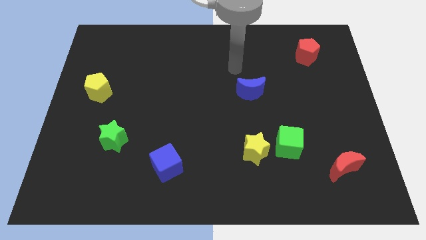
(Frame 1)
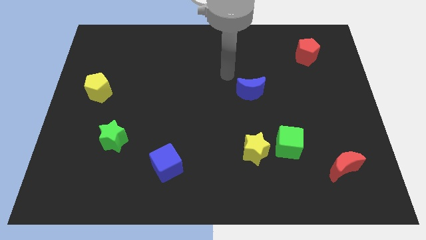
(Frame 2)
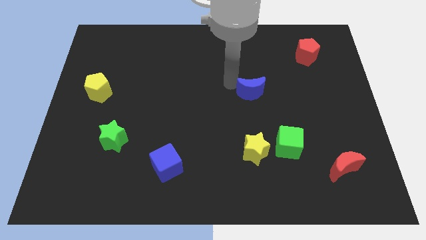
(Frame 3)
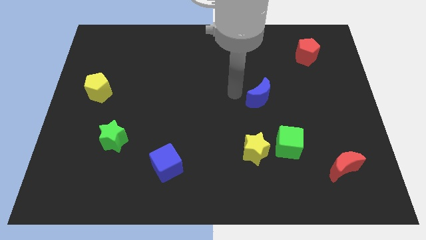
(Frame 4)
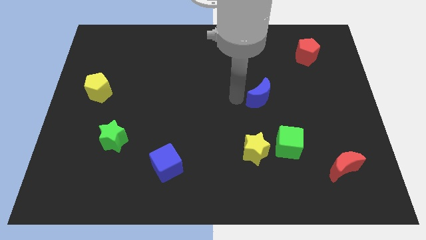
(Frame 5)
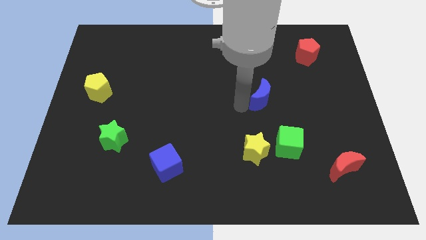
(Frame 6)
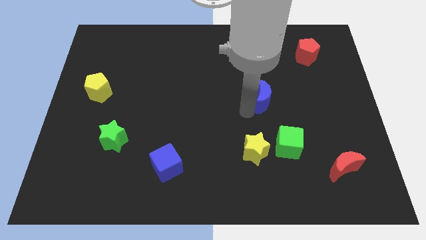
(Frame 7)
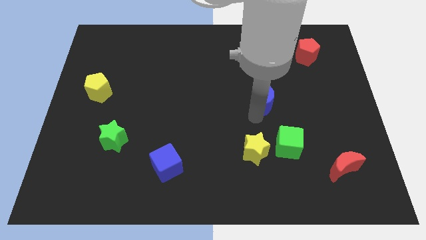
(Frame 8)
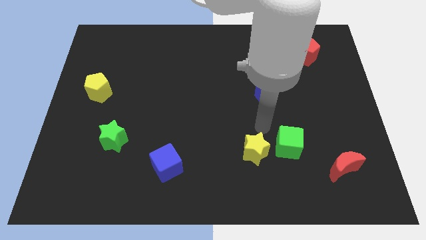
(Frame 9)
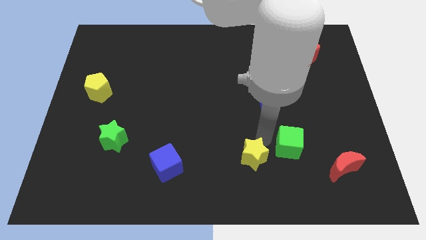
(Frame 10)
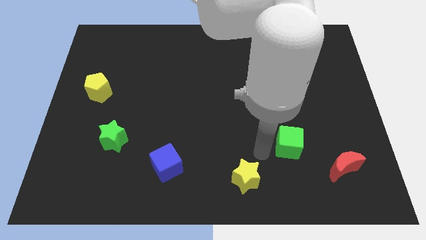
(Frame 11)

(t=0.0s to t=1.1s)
pull the green cube apart from the yellow star

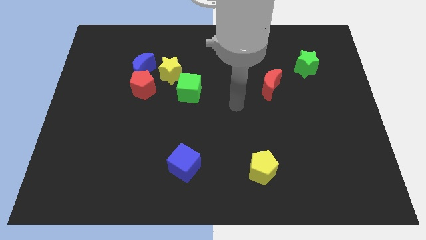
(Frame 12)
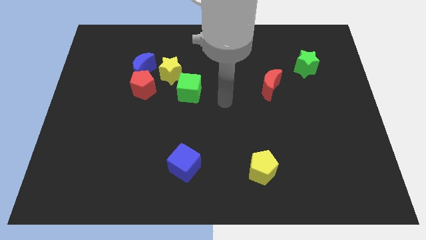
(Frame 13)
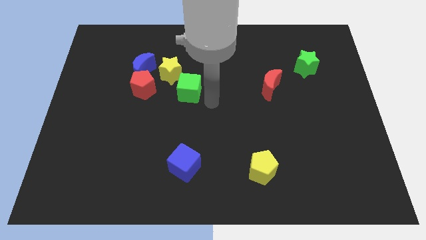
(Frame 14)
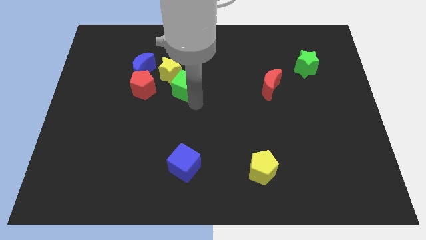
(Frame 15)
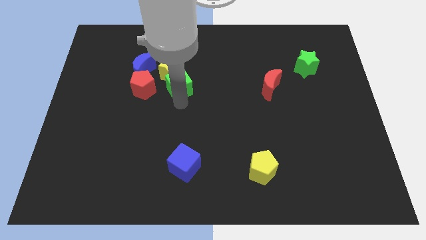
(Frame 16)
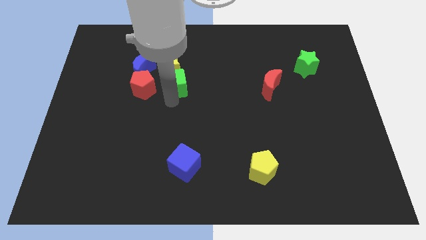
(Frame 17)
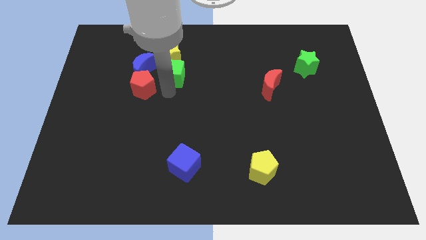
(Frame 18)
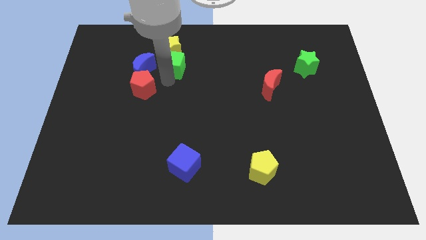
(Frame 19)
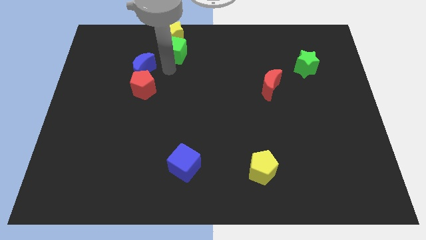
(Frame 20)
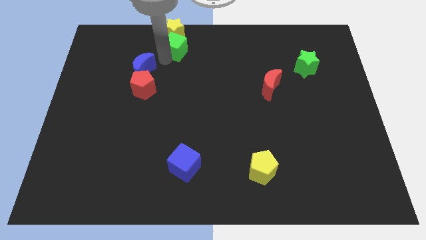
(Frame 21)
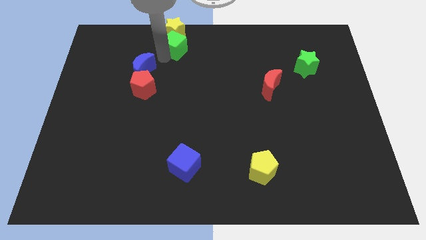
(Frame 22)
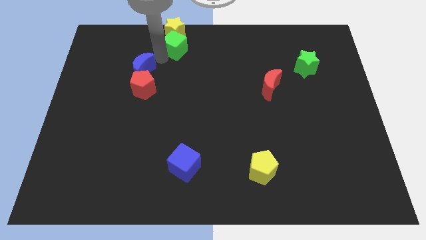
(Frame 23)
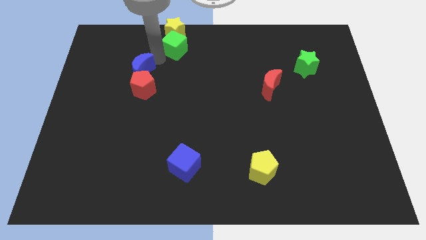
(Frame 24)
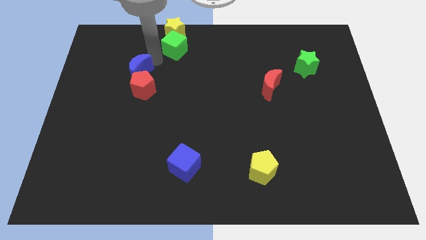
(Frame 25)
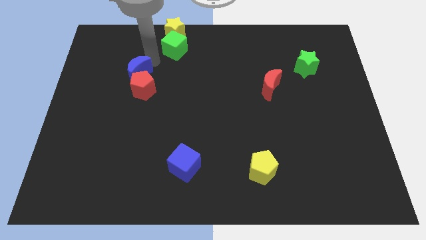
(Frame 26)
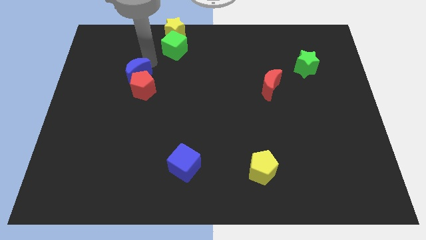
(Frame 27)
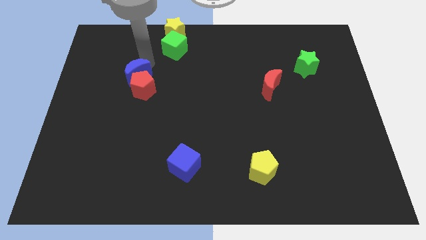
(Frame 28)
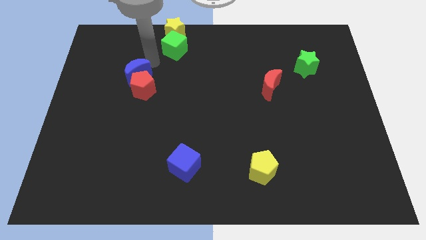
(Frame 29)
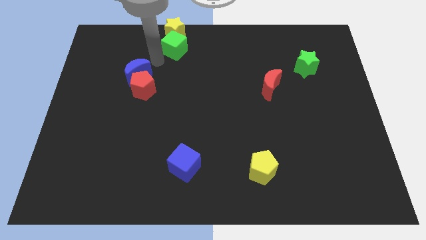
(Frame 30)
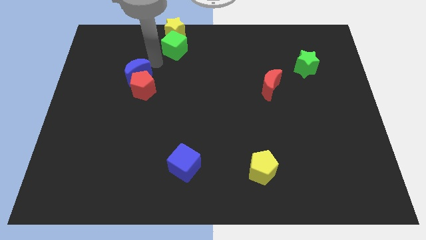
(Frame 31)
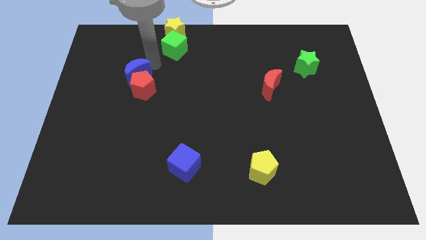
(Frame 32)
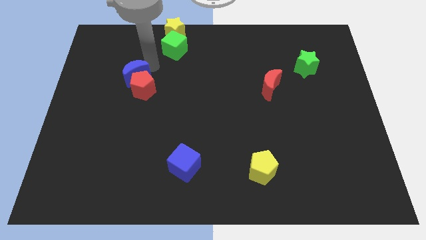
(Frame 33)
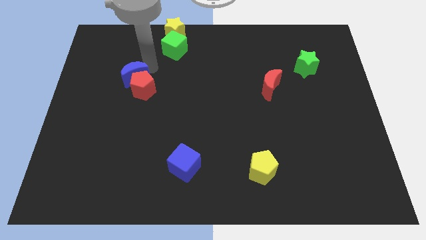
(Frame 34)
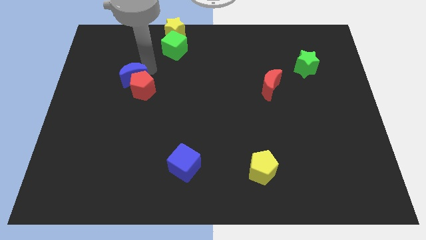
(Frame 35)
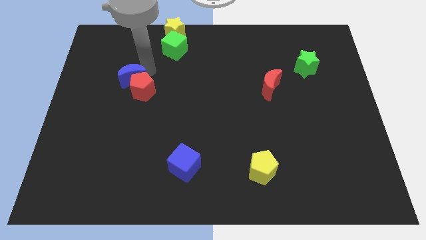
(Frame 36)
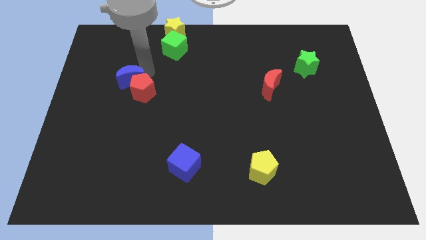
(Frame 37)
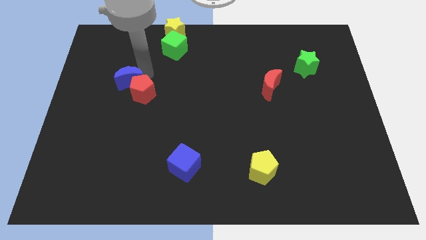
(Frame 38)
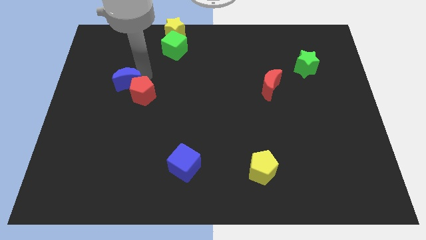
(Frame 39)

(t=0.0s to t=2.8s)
pull the blue moon apart from the red pentagon and yellow star

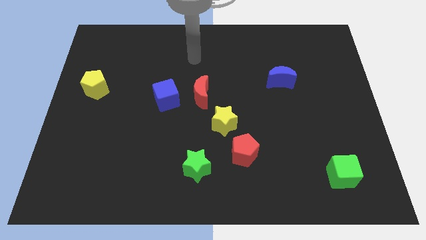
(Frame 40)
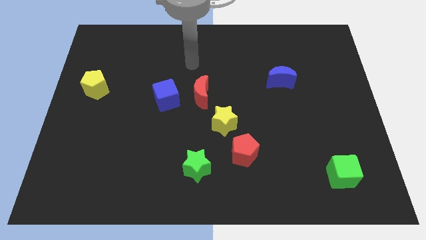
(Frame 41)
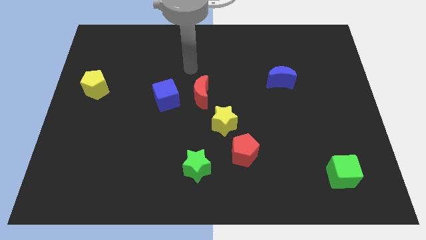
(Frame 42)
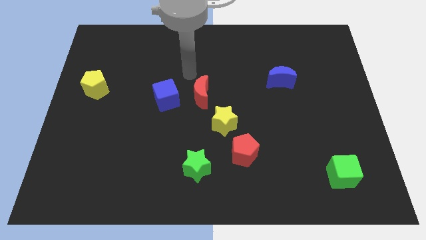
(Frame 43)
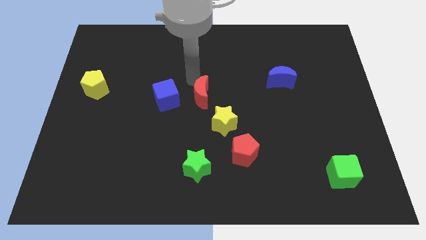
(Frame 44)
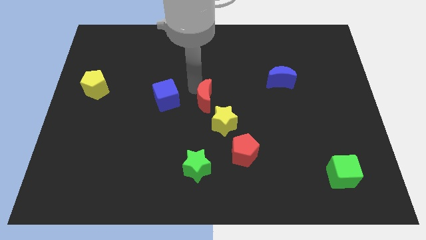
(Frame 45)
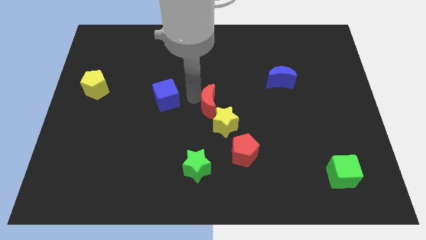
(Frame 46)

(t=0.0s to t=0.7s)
separate the blue cube from the red moon

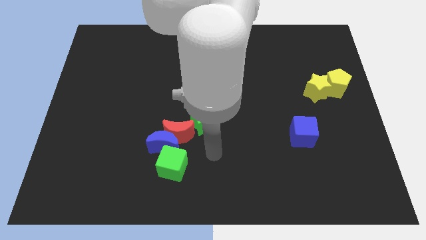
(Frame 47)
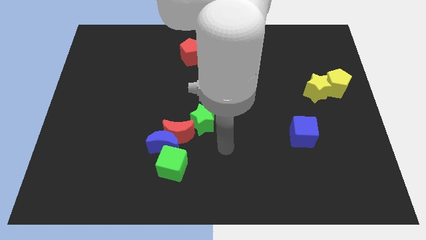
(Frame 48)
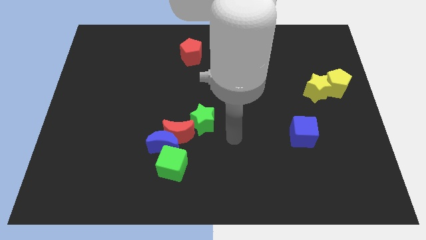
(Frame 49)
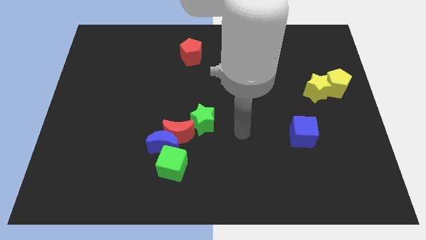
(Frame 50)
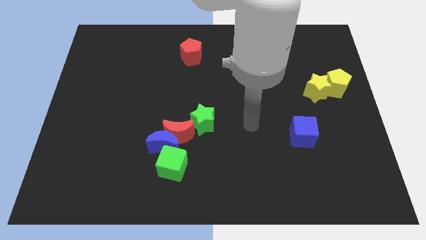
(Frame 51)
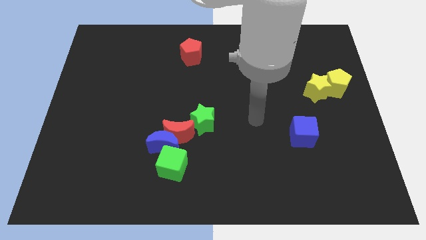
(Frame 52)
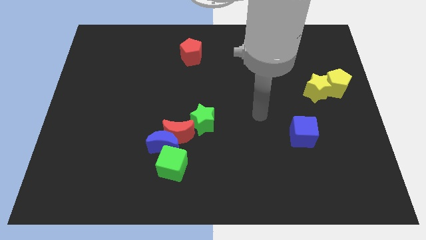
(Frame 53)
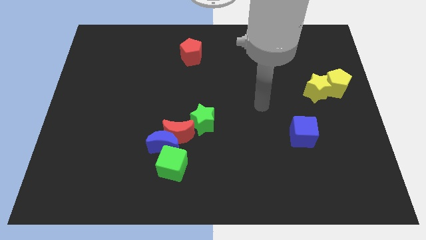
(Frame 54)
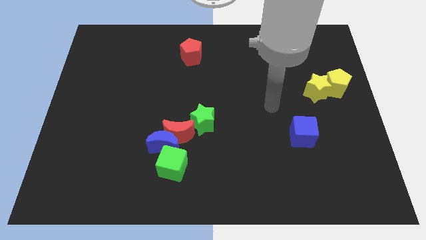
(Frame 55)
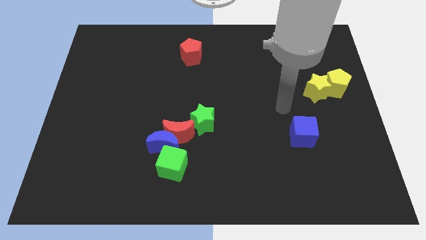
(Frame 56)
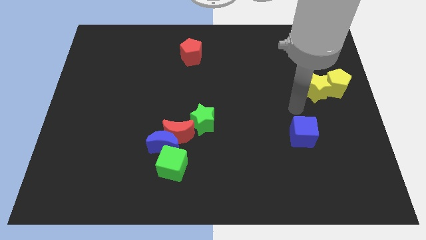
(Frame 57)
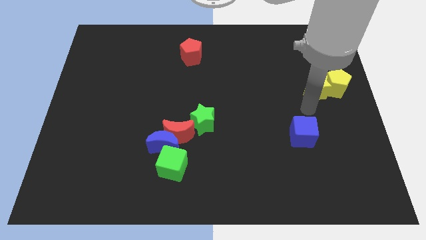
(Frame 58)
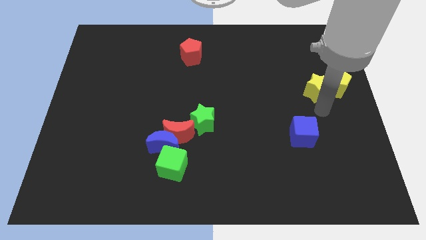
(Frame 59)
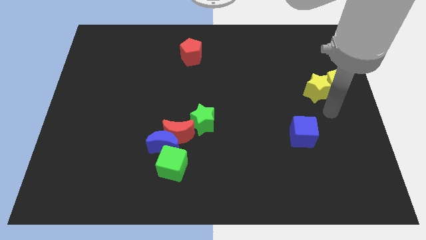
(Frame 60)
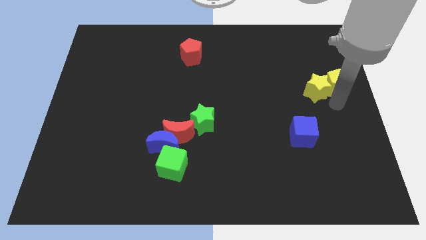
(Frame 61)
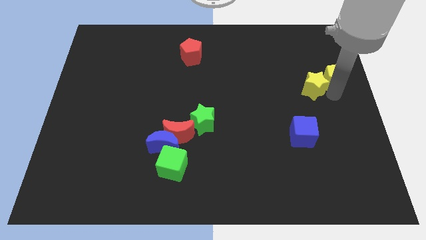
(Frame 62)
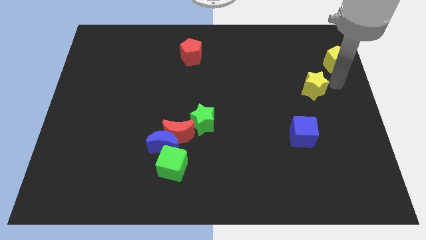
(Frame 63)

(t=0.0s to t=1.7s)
pull the yellow star apart from the yellow pentagon

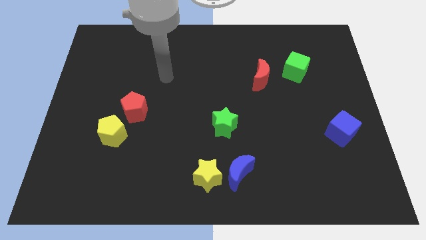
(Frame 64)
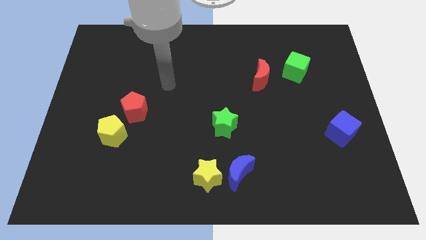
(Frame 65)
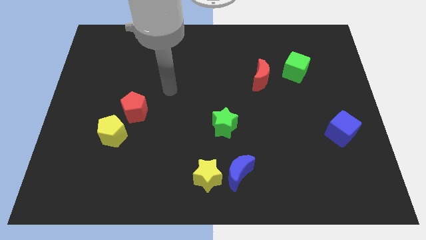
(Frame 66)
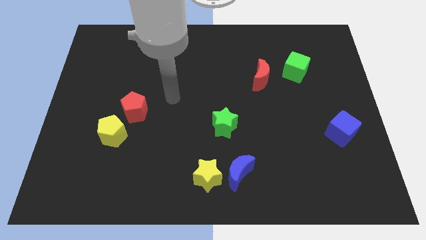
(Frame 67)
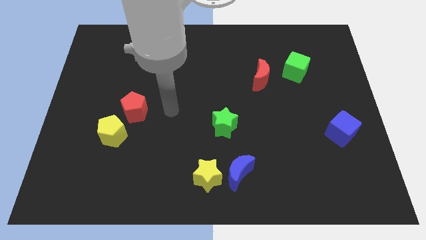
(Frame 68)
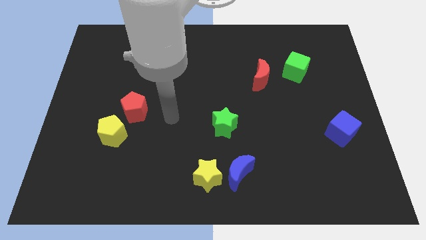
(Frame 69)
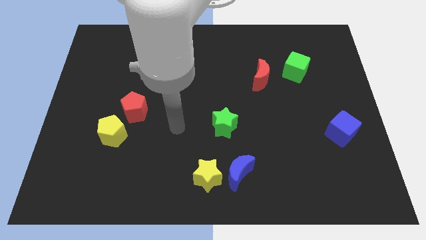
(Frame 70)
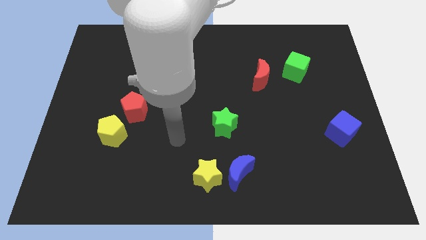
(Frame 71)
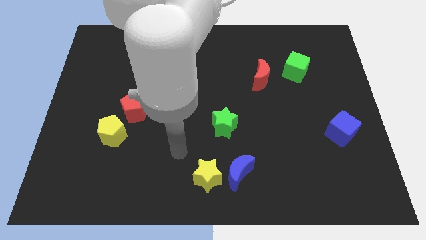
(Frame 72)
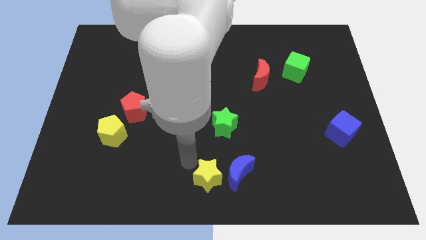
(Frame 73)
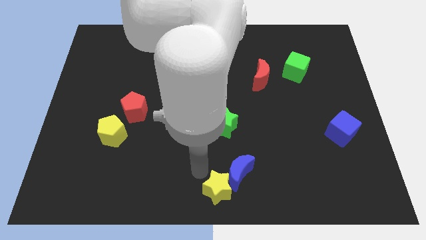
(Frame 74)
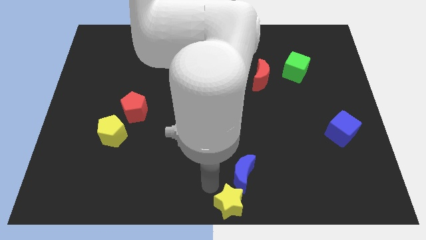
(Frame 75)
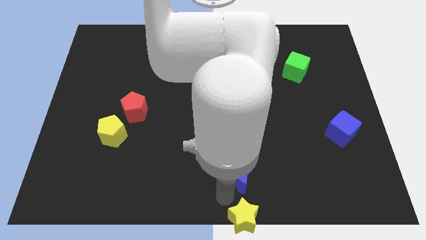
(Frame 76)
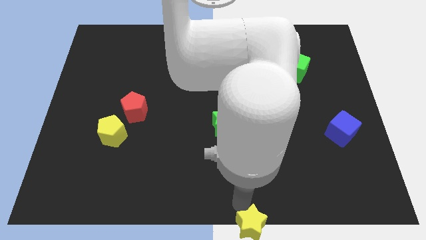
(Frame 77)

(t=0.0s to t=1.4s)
move the blue moon away from the yellow star

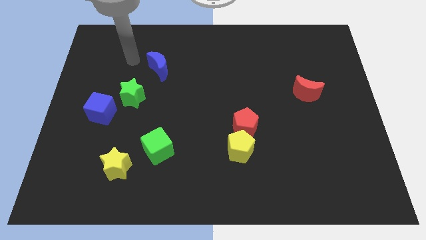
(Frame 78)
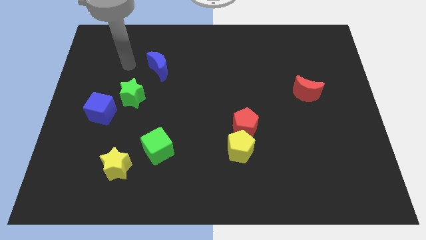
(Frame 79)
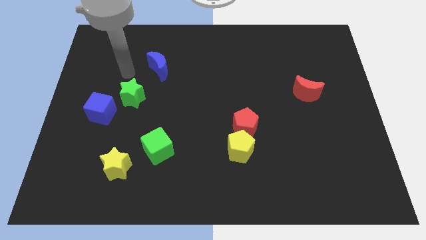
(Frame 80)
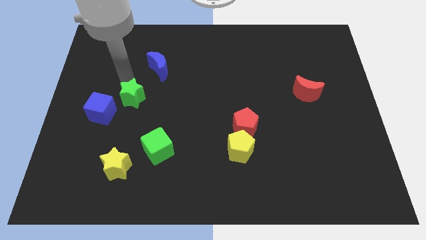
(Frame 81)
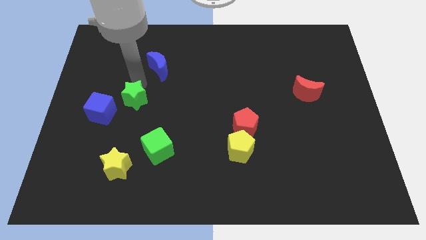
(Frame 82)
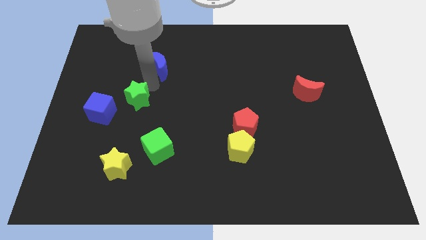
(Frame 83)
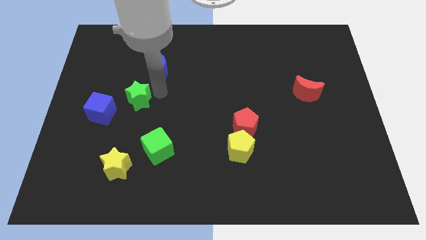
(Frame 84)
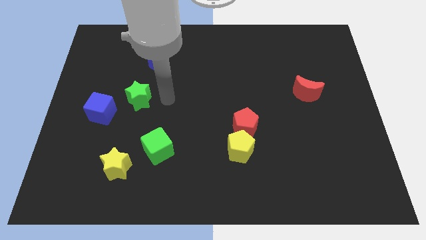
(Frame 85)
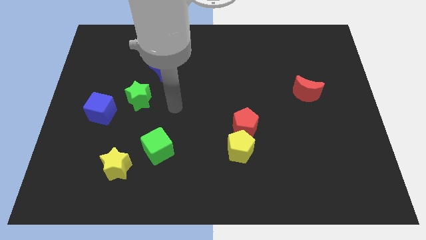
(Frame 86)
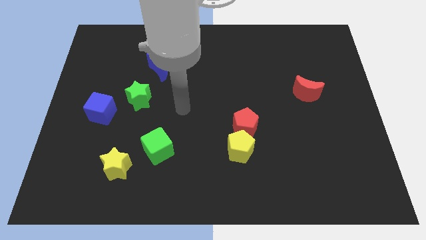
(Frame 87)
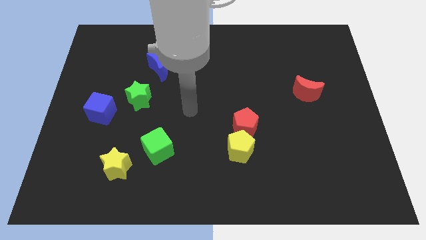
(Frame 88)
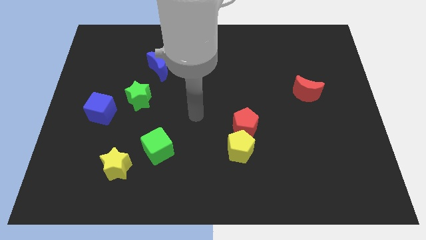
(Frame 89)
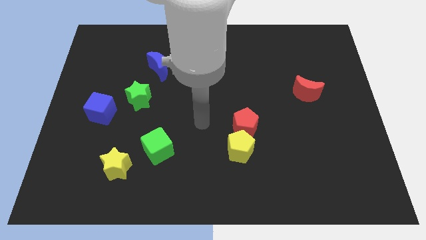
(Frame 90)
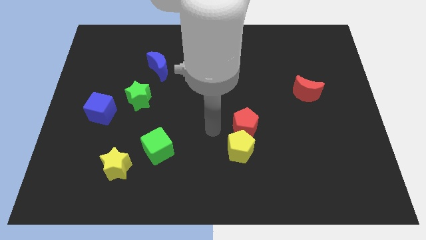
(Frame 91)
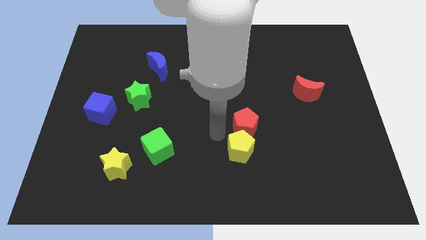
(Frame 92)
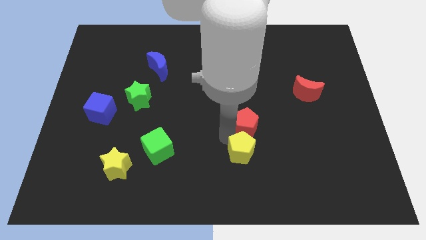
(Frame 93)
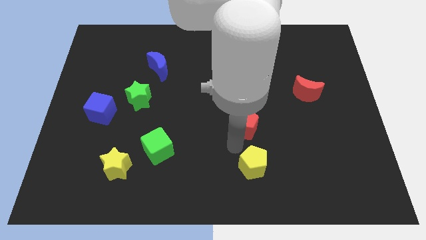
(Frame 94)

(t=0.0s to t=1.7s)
separate the red pentagon from the yellow pentagon
